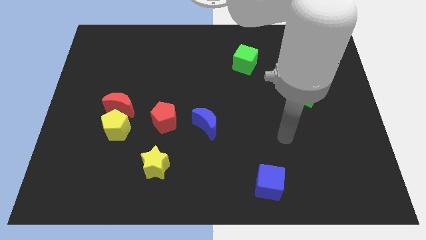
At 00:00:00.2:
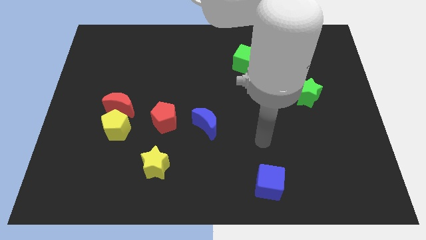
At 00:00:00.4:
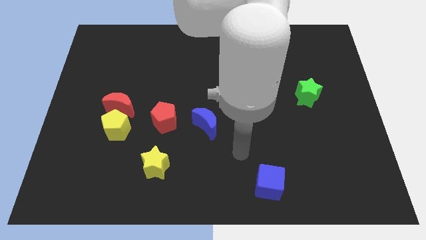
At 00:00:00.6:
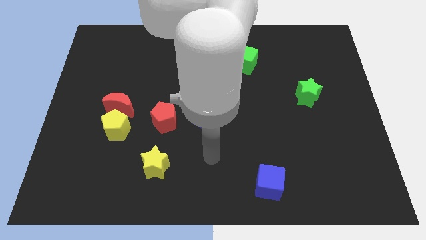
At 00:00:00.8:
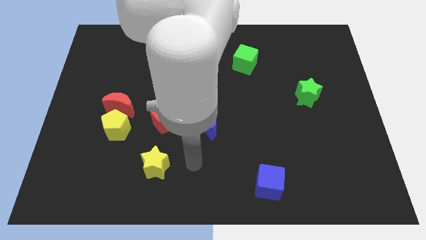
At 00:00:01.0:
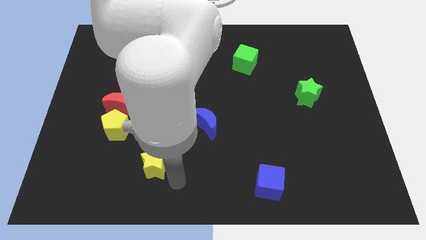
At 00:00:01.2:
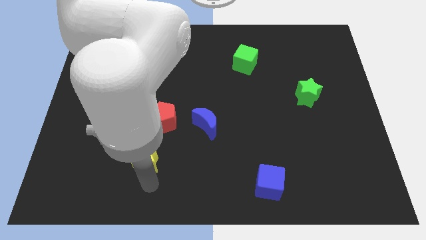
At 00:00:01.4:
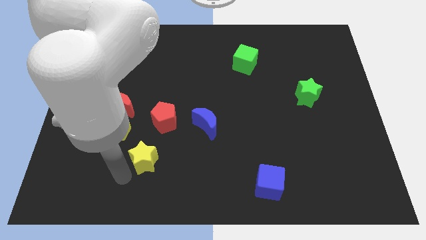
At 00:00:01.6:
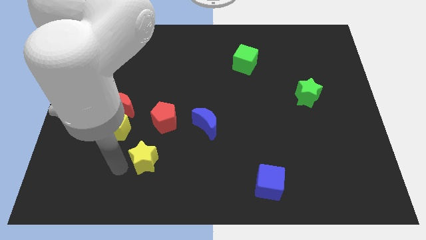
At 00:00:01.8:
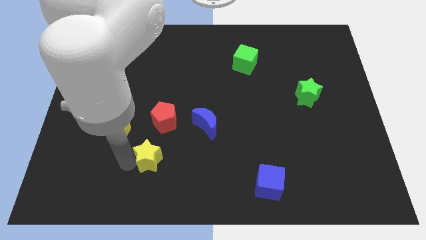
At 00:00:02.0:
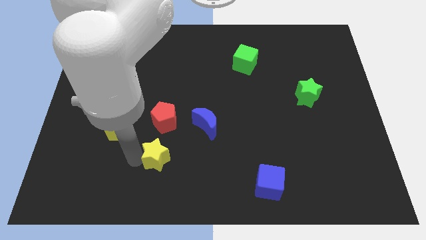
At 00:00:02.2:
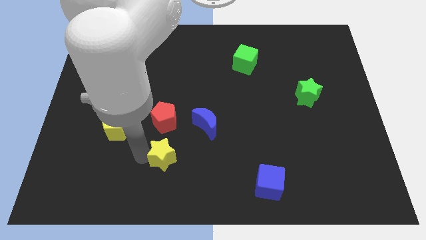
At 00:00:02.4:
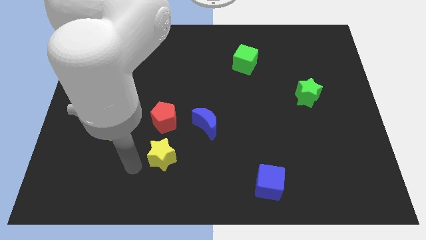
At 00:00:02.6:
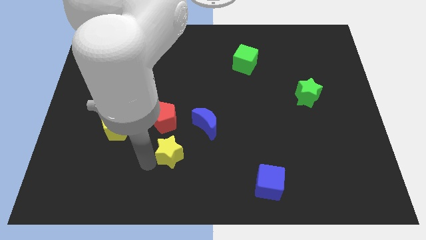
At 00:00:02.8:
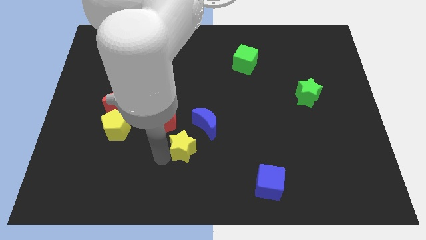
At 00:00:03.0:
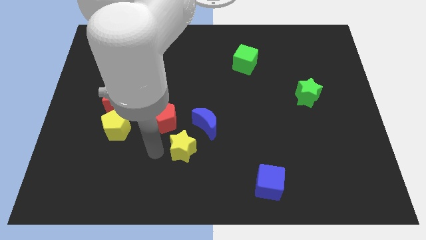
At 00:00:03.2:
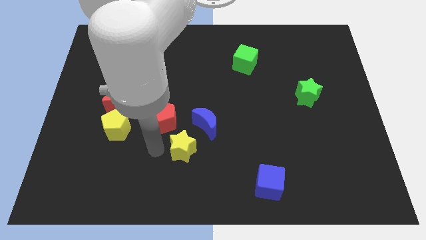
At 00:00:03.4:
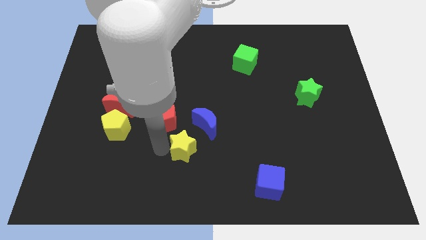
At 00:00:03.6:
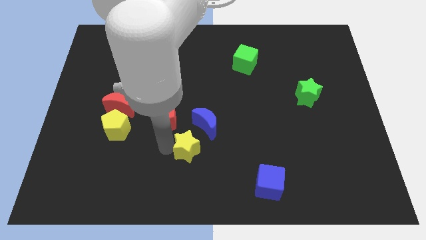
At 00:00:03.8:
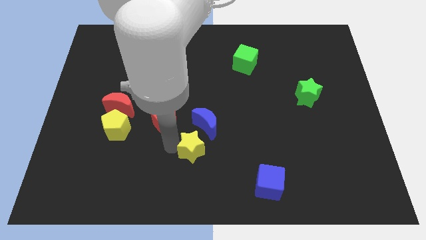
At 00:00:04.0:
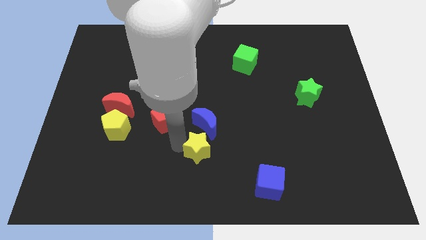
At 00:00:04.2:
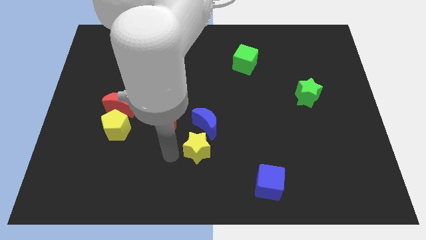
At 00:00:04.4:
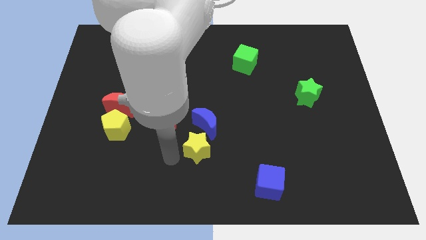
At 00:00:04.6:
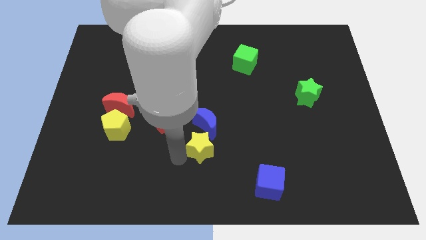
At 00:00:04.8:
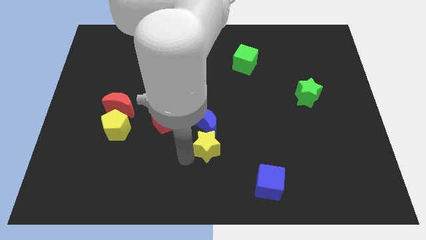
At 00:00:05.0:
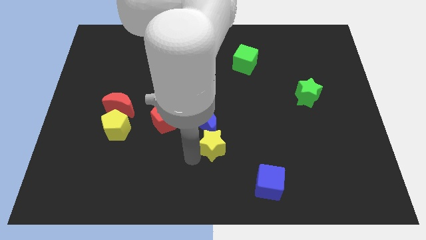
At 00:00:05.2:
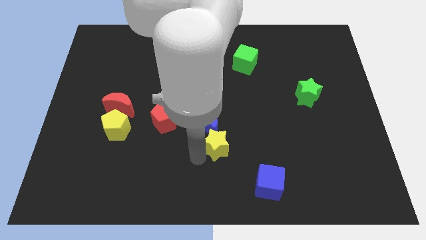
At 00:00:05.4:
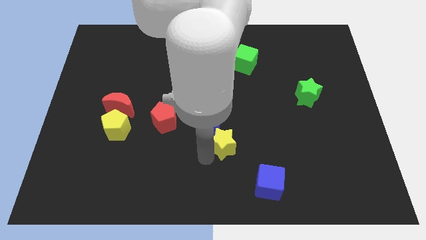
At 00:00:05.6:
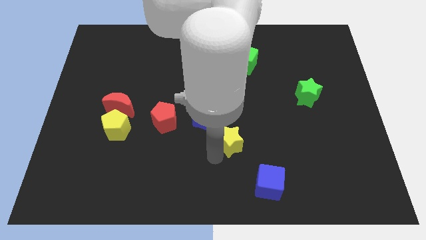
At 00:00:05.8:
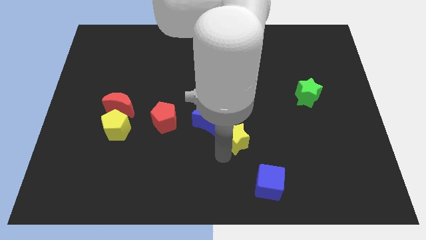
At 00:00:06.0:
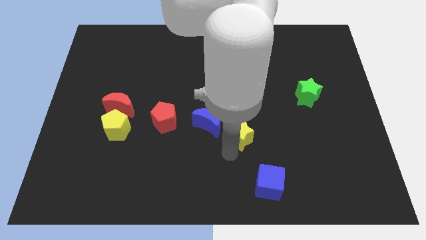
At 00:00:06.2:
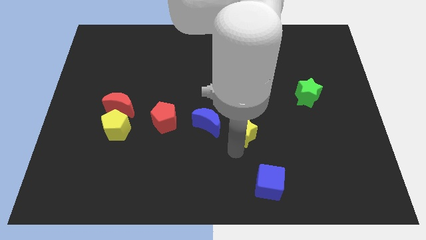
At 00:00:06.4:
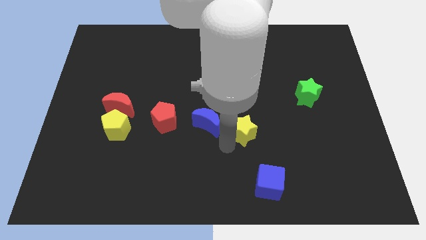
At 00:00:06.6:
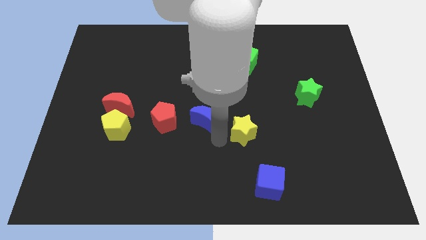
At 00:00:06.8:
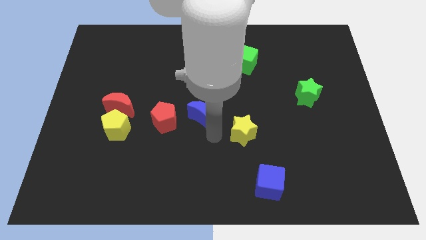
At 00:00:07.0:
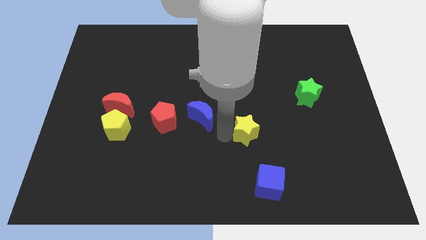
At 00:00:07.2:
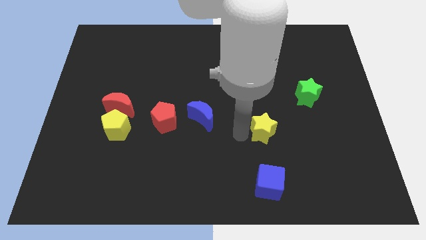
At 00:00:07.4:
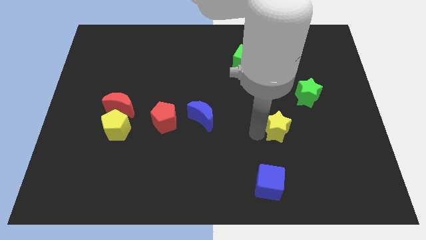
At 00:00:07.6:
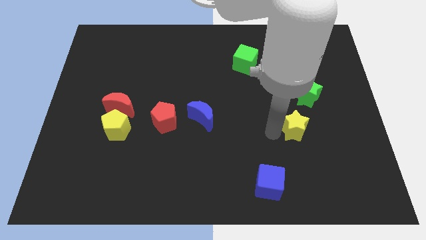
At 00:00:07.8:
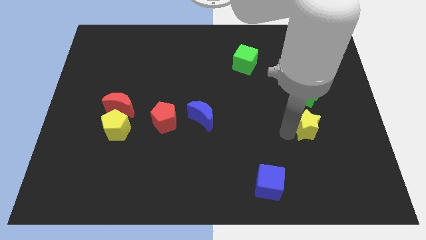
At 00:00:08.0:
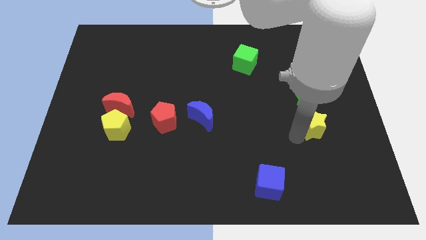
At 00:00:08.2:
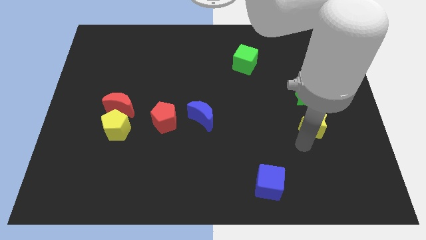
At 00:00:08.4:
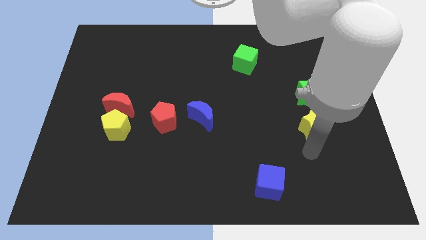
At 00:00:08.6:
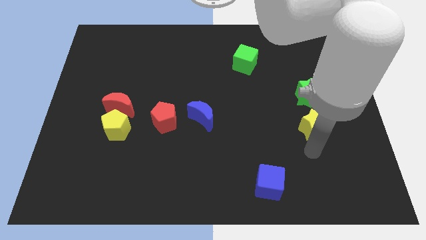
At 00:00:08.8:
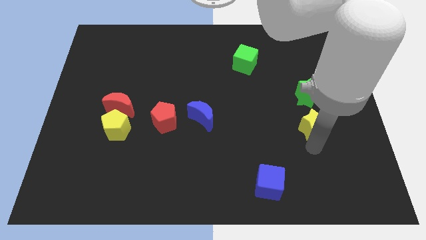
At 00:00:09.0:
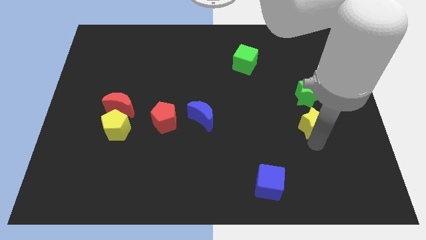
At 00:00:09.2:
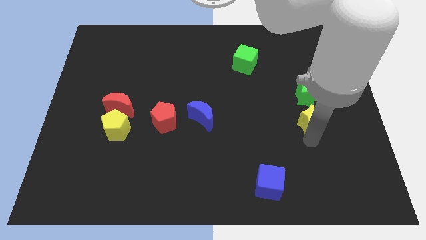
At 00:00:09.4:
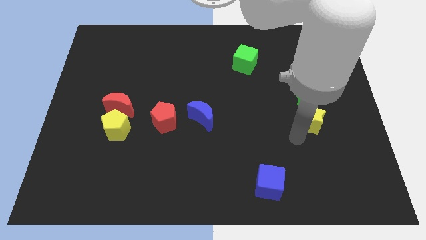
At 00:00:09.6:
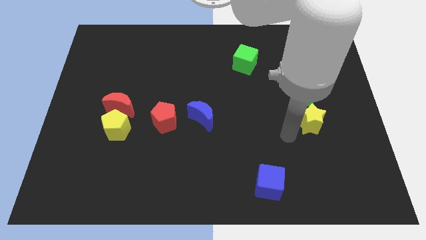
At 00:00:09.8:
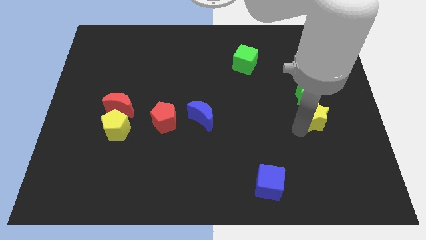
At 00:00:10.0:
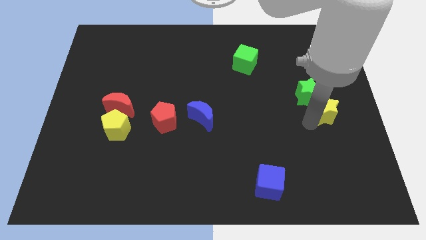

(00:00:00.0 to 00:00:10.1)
push the yellow star to the right side

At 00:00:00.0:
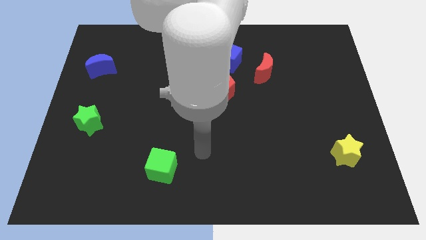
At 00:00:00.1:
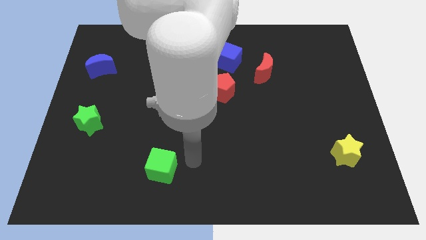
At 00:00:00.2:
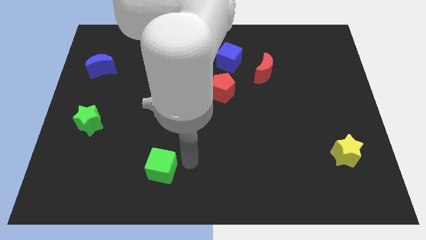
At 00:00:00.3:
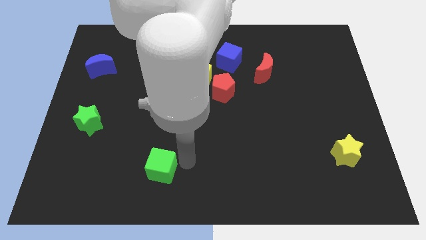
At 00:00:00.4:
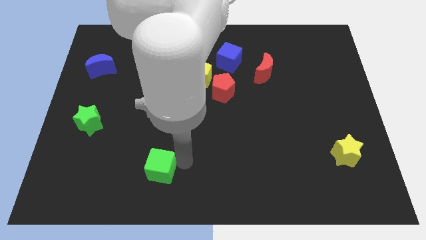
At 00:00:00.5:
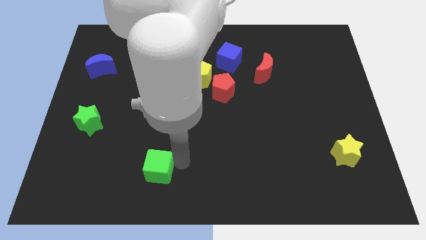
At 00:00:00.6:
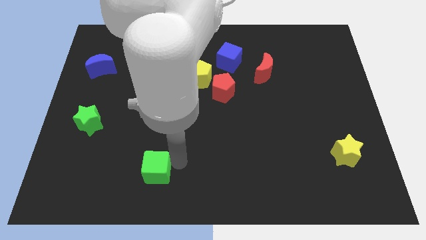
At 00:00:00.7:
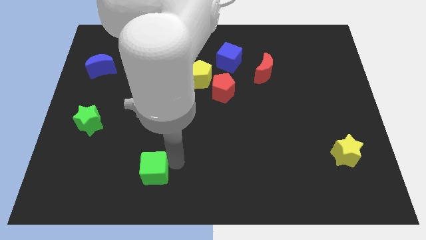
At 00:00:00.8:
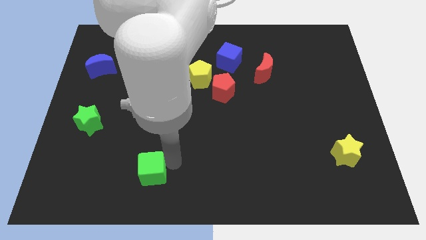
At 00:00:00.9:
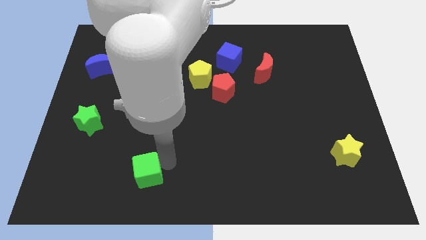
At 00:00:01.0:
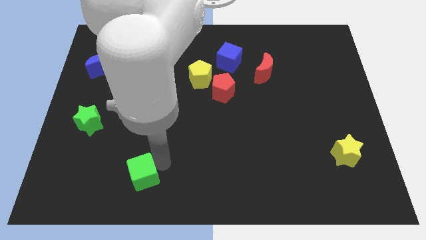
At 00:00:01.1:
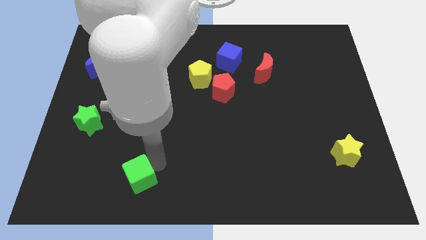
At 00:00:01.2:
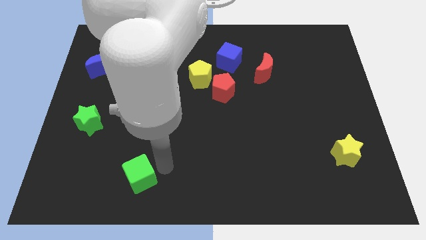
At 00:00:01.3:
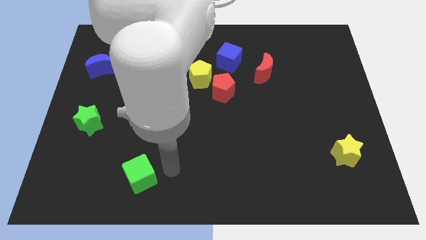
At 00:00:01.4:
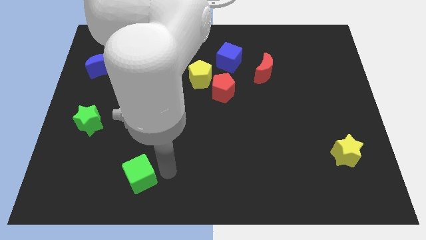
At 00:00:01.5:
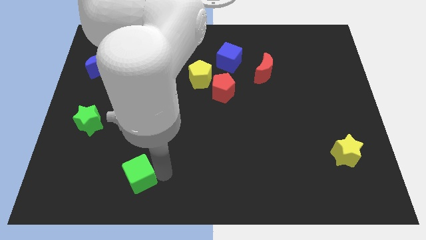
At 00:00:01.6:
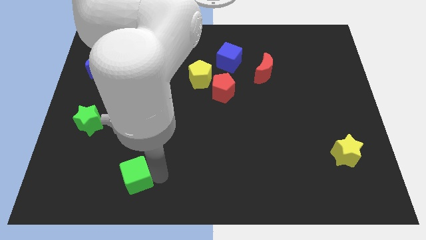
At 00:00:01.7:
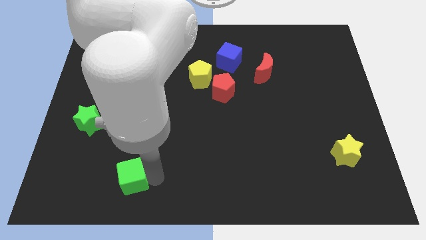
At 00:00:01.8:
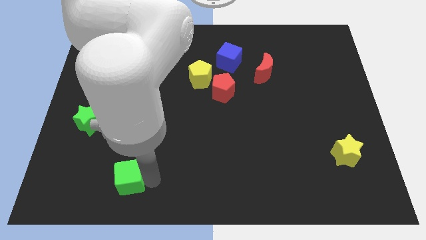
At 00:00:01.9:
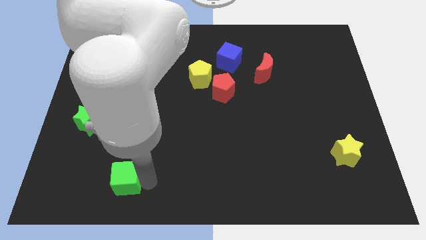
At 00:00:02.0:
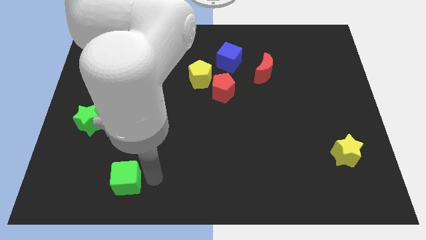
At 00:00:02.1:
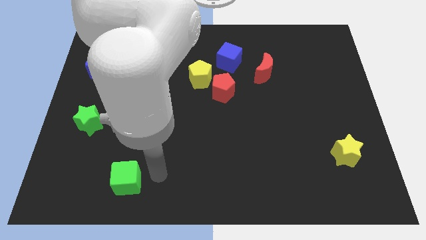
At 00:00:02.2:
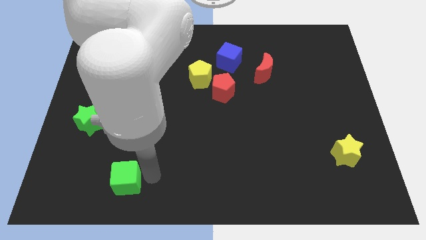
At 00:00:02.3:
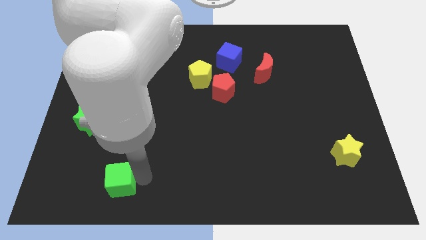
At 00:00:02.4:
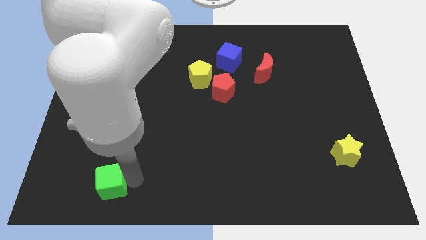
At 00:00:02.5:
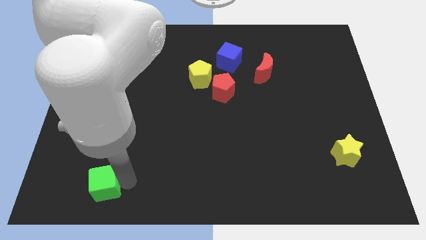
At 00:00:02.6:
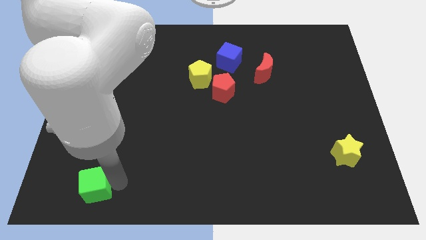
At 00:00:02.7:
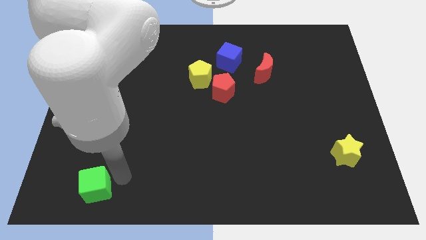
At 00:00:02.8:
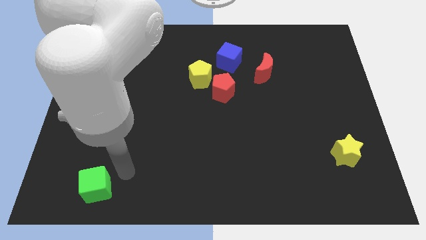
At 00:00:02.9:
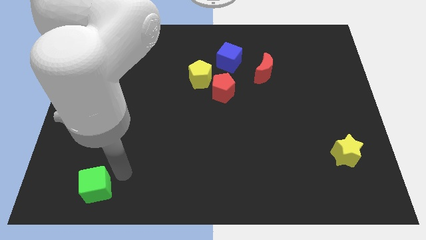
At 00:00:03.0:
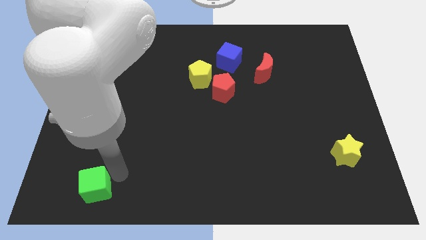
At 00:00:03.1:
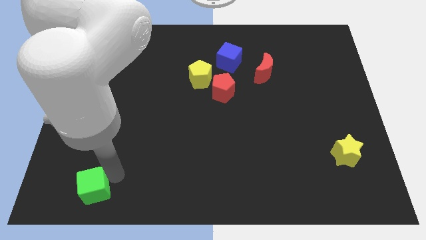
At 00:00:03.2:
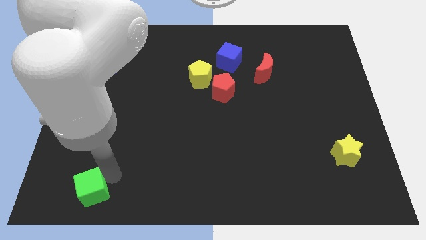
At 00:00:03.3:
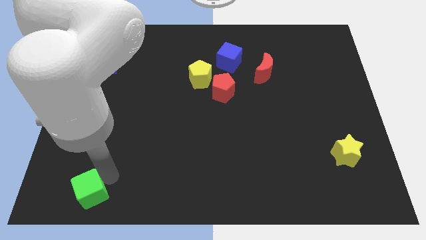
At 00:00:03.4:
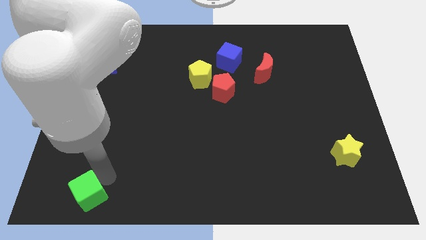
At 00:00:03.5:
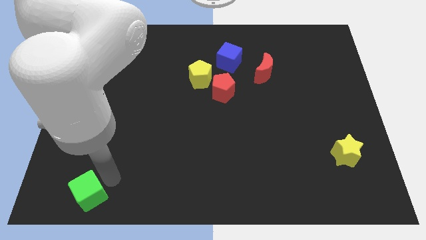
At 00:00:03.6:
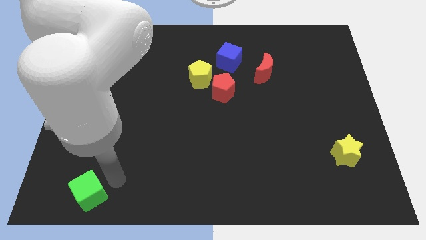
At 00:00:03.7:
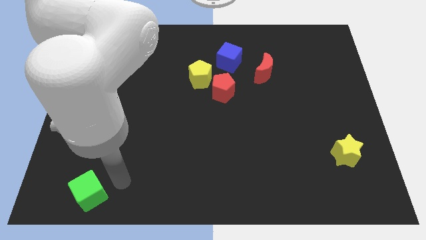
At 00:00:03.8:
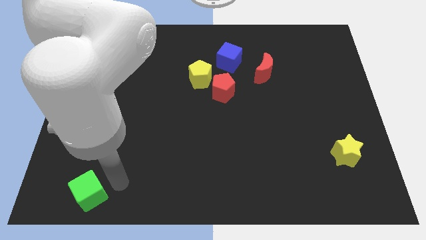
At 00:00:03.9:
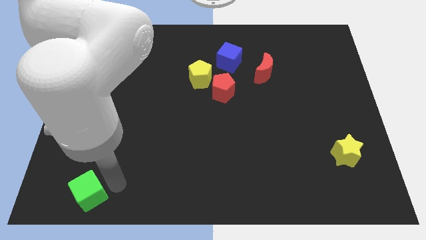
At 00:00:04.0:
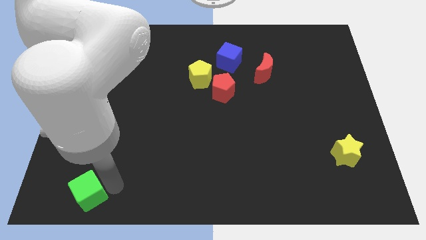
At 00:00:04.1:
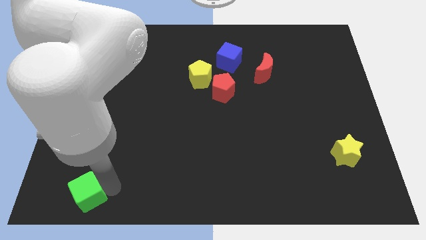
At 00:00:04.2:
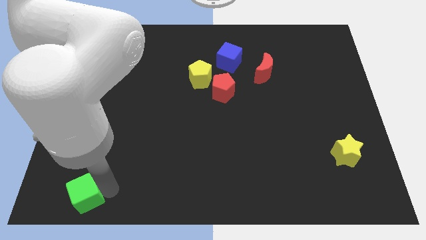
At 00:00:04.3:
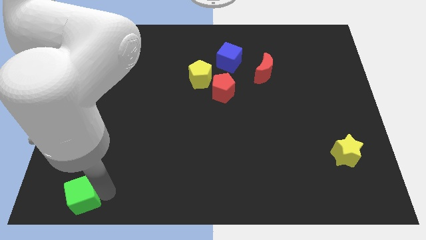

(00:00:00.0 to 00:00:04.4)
put the green cube to the lower left corner
